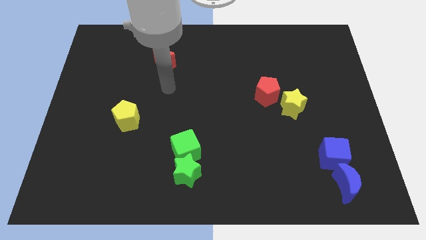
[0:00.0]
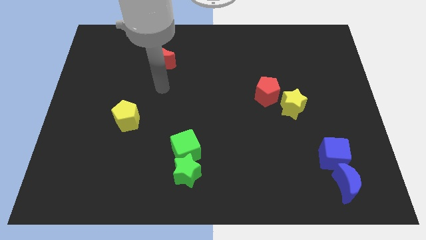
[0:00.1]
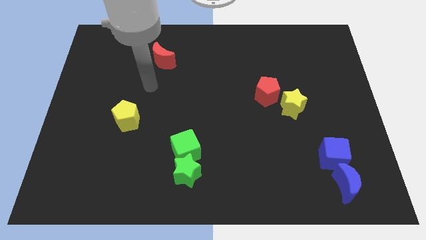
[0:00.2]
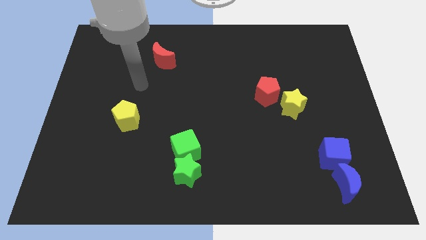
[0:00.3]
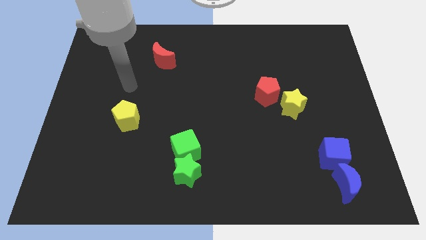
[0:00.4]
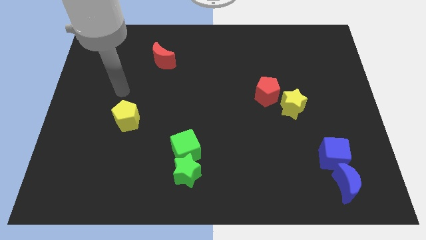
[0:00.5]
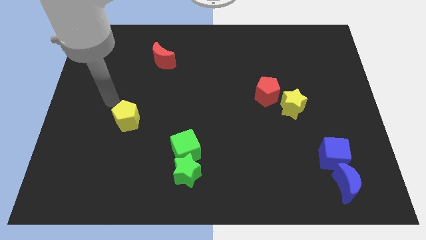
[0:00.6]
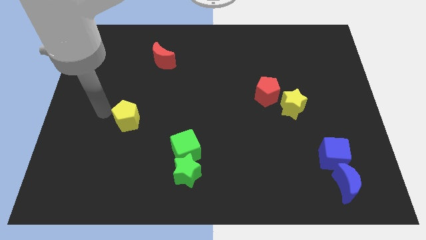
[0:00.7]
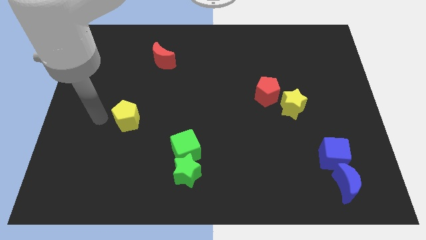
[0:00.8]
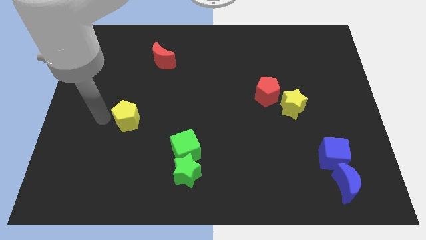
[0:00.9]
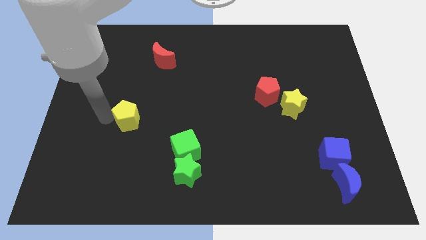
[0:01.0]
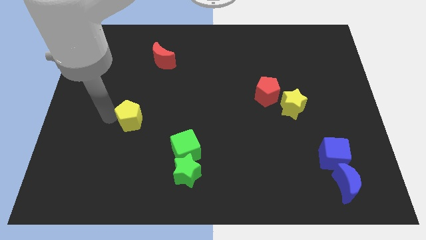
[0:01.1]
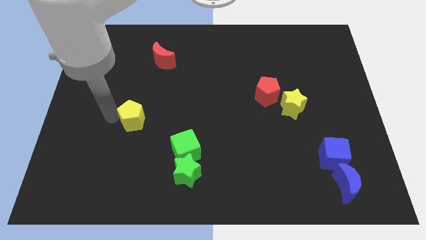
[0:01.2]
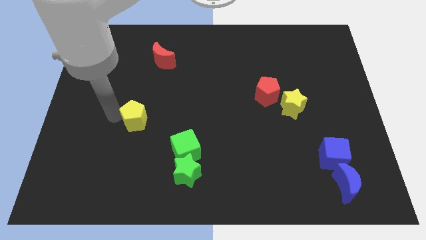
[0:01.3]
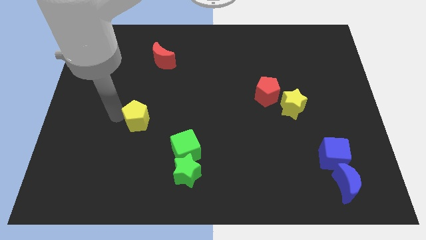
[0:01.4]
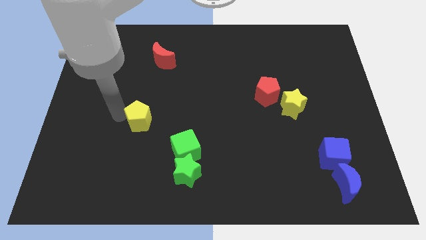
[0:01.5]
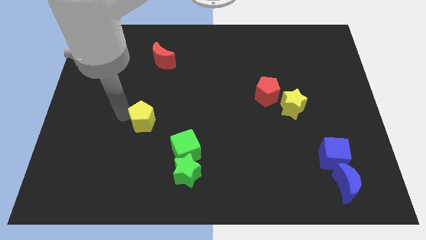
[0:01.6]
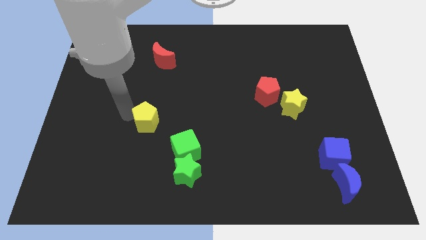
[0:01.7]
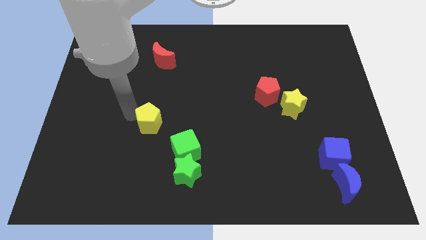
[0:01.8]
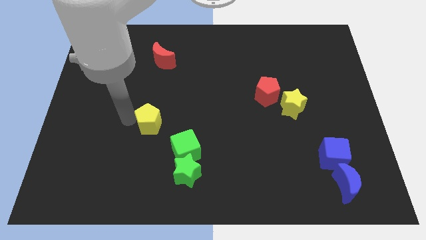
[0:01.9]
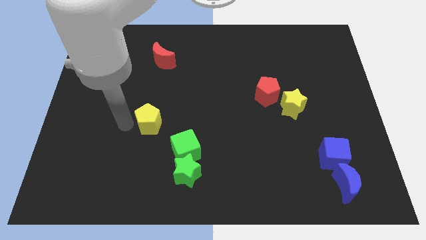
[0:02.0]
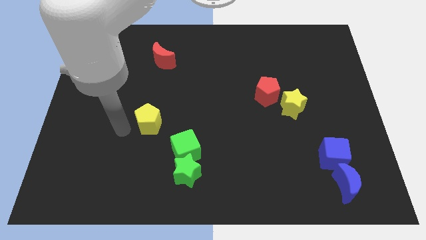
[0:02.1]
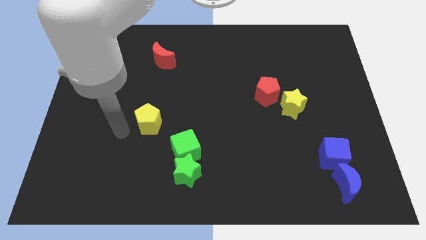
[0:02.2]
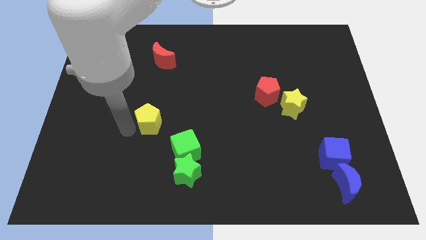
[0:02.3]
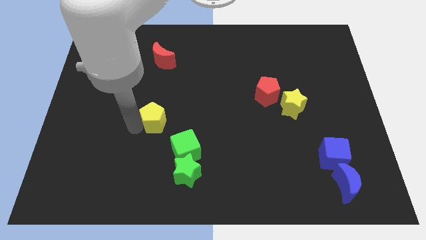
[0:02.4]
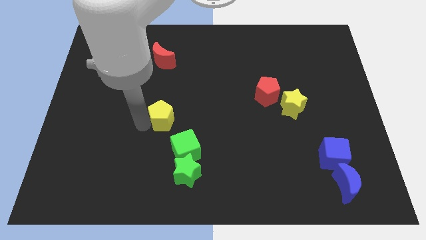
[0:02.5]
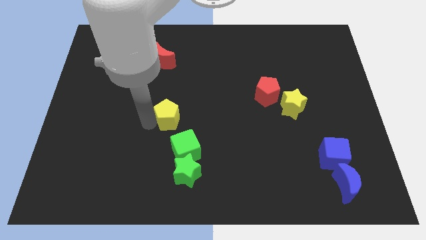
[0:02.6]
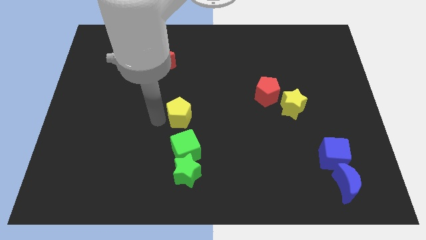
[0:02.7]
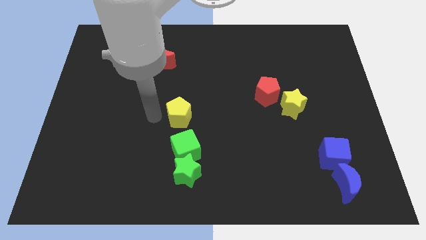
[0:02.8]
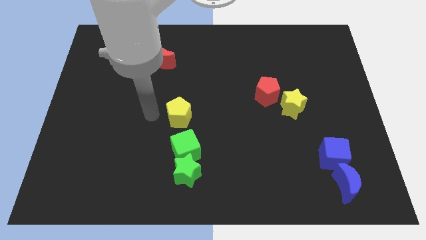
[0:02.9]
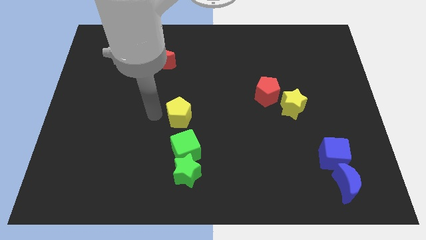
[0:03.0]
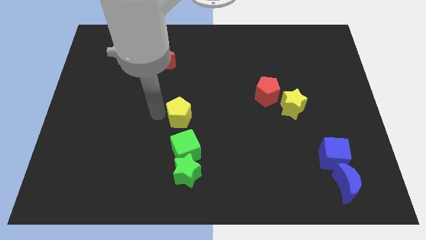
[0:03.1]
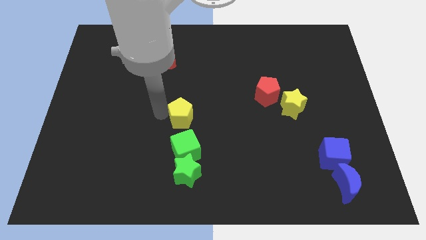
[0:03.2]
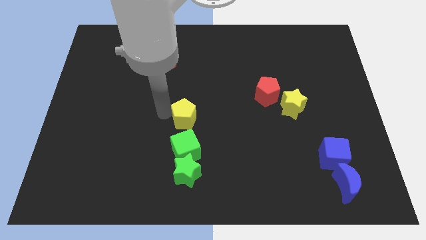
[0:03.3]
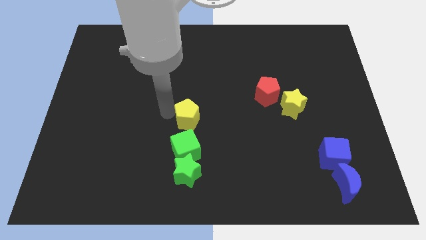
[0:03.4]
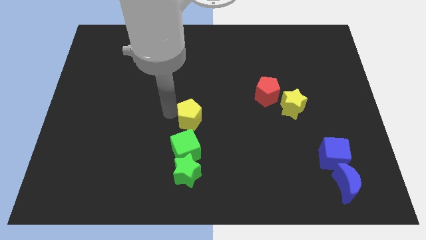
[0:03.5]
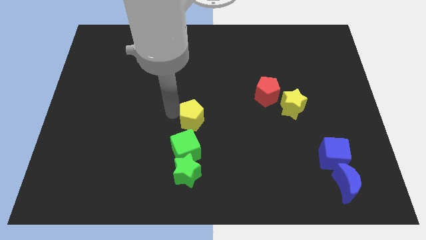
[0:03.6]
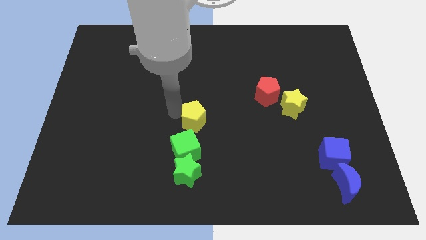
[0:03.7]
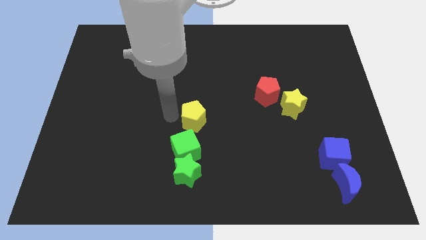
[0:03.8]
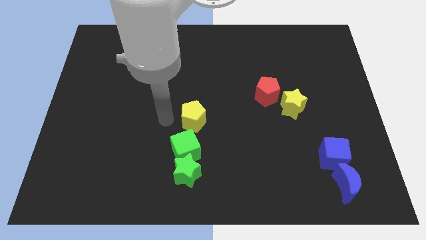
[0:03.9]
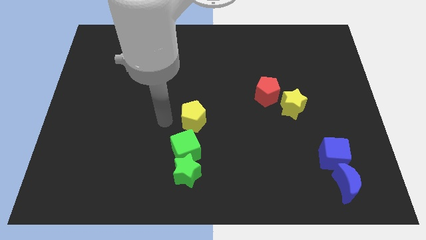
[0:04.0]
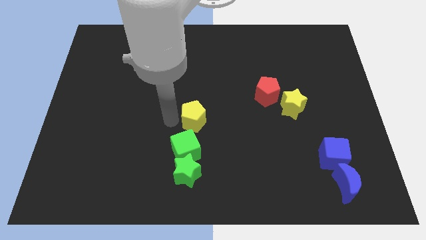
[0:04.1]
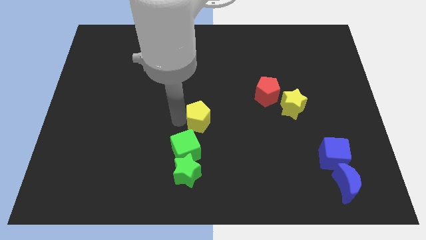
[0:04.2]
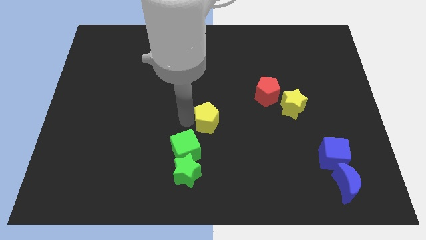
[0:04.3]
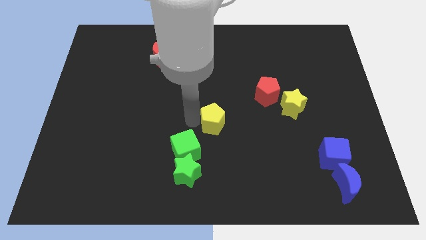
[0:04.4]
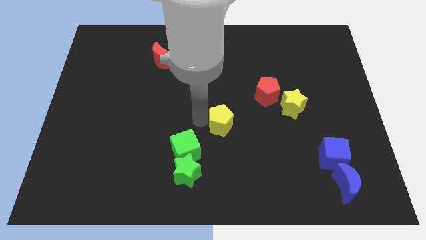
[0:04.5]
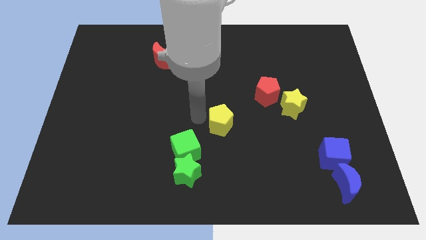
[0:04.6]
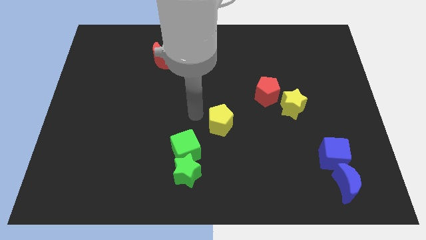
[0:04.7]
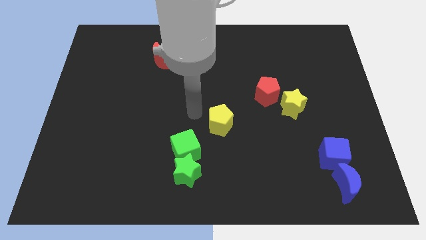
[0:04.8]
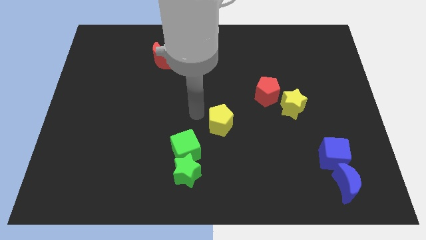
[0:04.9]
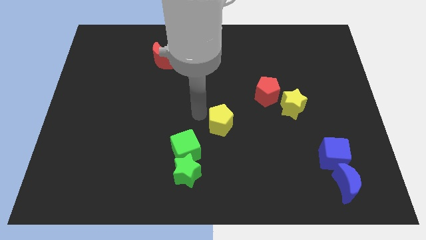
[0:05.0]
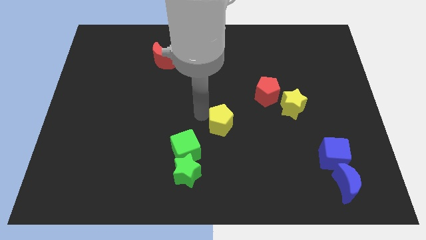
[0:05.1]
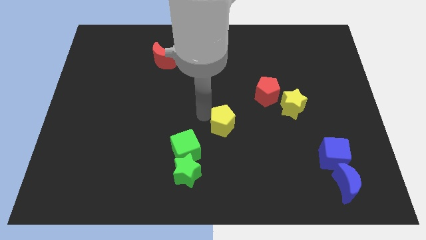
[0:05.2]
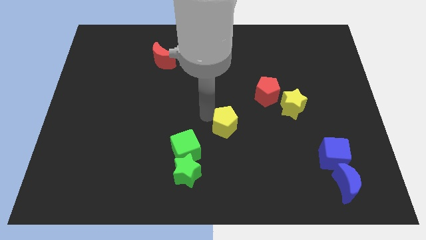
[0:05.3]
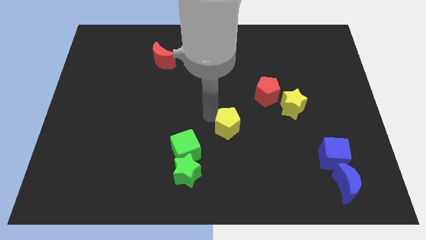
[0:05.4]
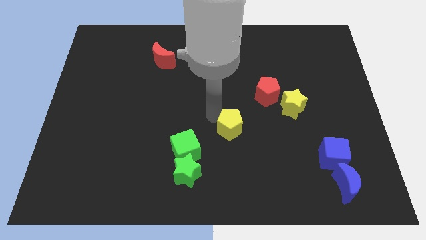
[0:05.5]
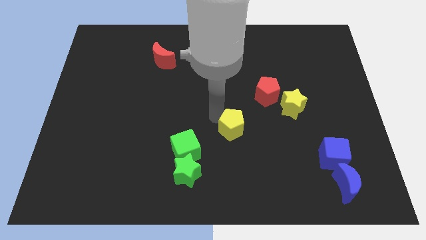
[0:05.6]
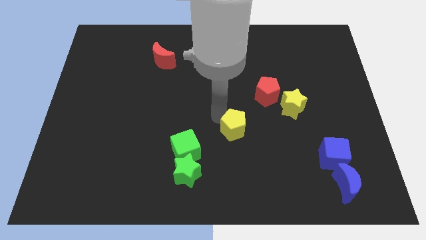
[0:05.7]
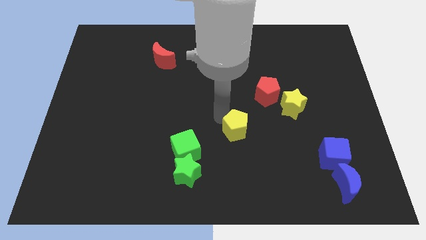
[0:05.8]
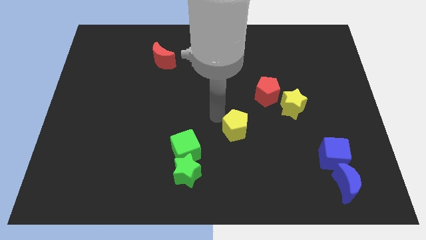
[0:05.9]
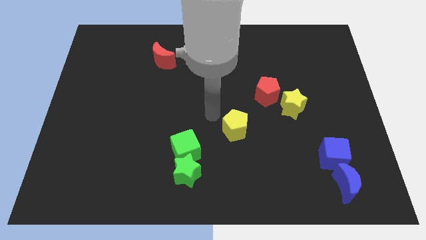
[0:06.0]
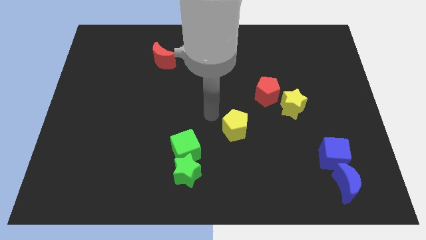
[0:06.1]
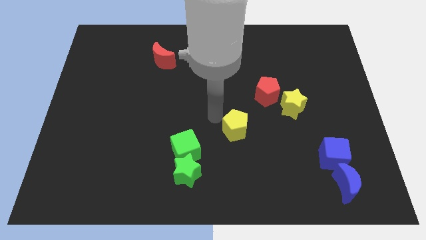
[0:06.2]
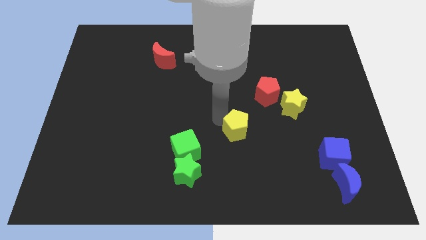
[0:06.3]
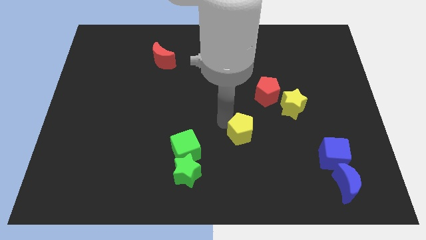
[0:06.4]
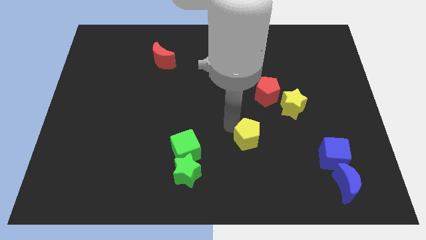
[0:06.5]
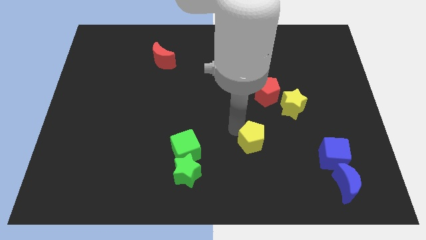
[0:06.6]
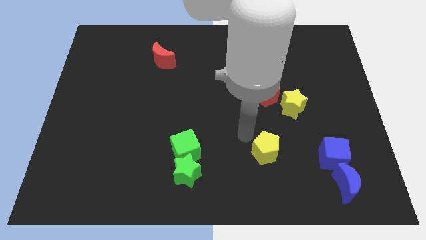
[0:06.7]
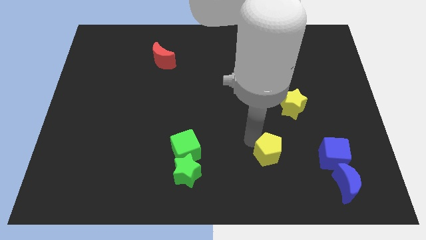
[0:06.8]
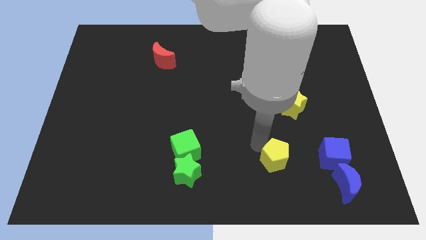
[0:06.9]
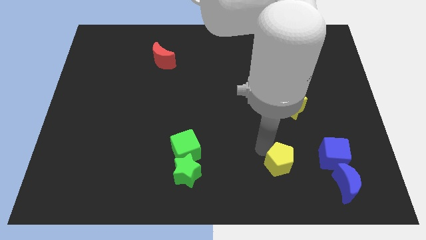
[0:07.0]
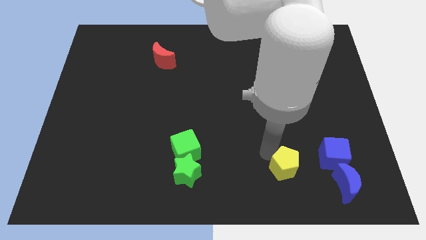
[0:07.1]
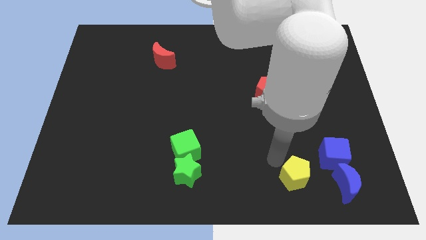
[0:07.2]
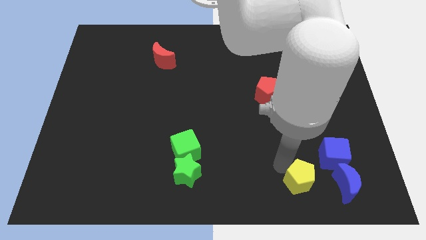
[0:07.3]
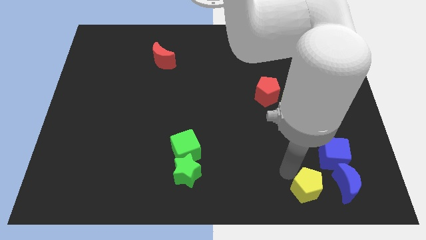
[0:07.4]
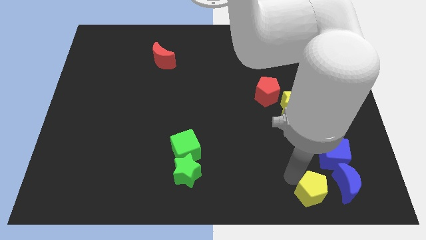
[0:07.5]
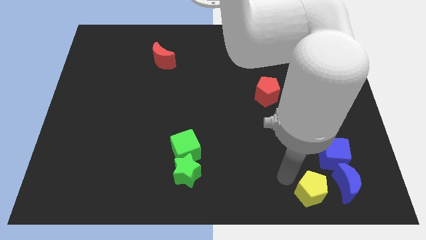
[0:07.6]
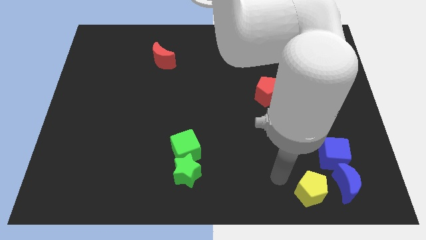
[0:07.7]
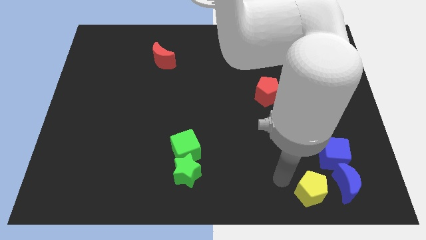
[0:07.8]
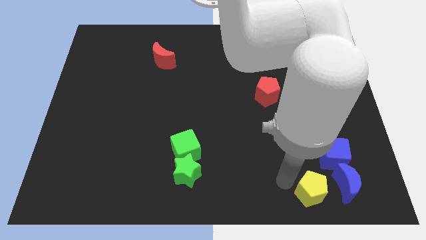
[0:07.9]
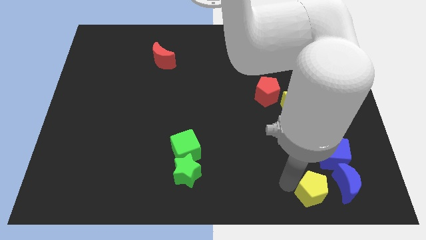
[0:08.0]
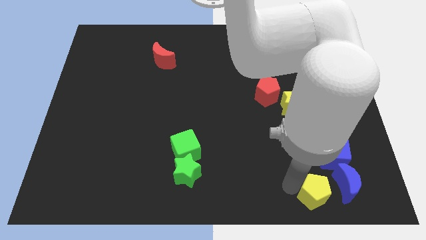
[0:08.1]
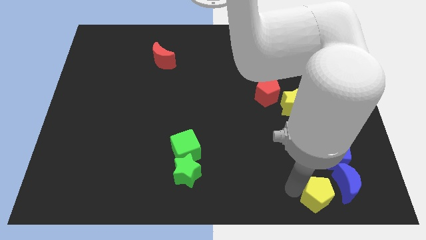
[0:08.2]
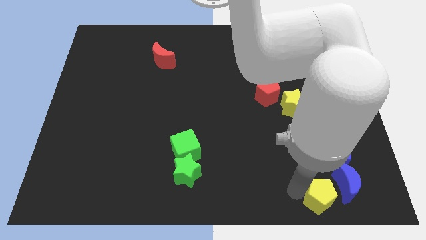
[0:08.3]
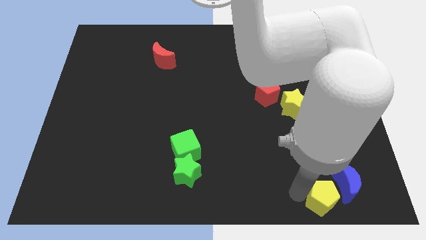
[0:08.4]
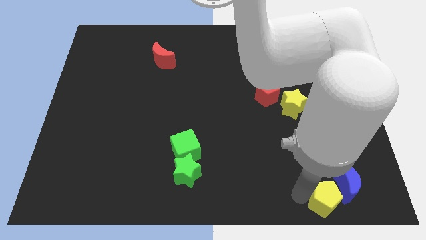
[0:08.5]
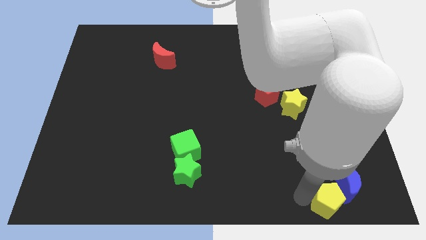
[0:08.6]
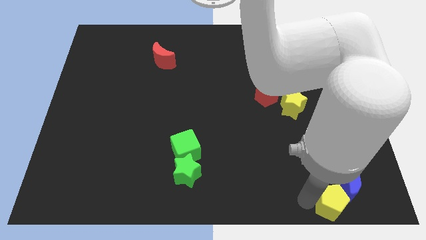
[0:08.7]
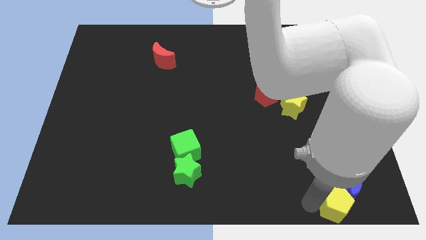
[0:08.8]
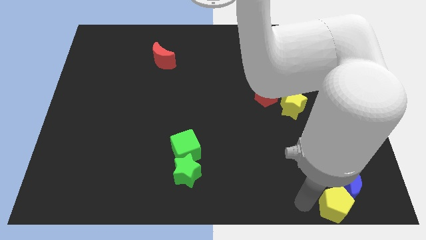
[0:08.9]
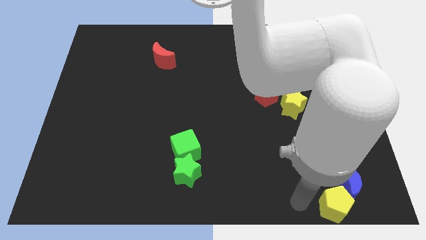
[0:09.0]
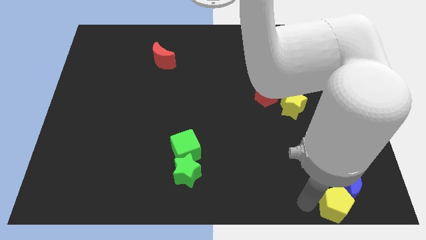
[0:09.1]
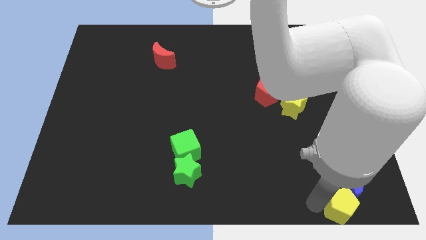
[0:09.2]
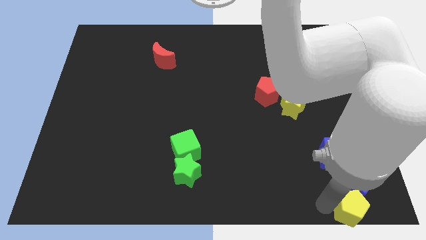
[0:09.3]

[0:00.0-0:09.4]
move the yellow pentagon to the bottom right
